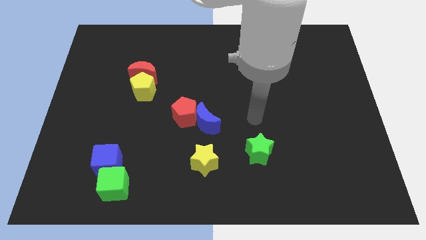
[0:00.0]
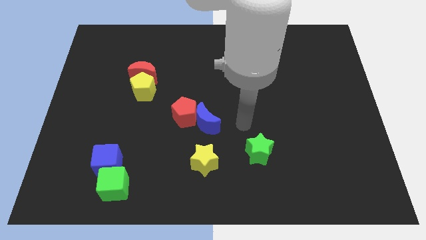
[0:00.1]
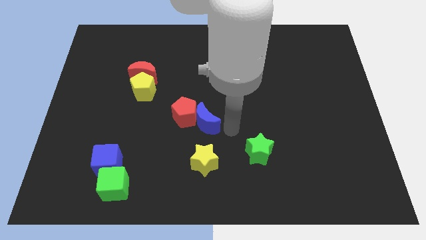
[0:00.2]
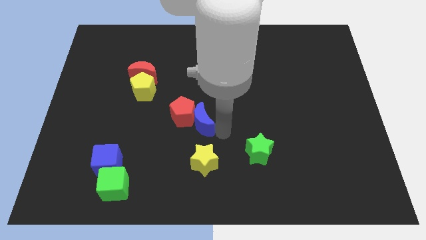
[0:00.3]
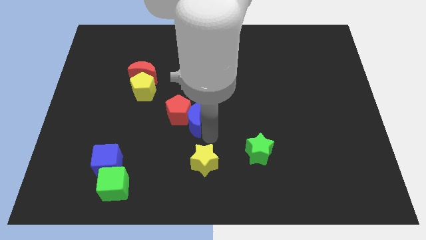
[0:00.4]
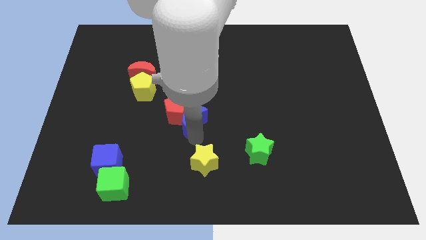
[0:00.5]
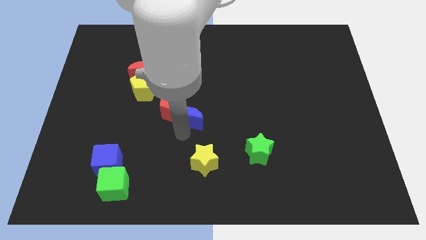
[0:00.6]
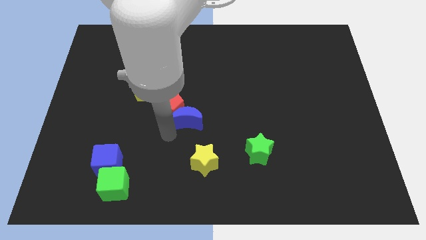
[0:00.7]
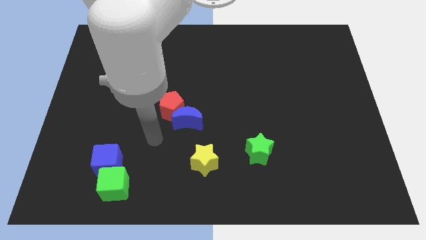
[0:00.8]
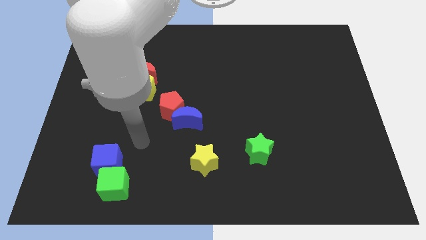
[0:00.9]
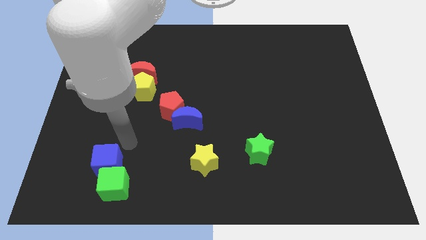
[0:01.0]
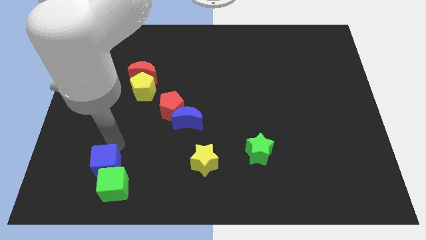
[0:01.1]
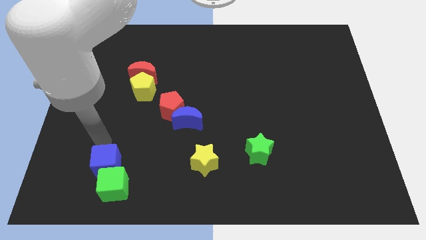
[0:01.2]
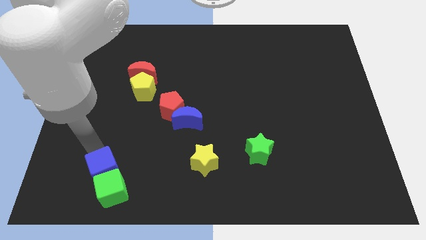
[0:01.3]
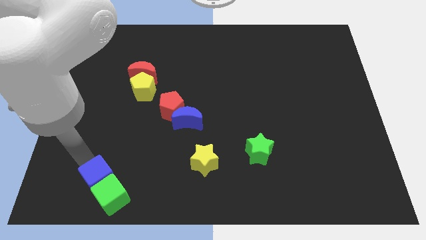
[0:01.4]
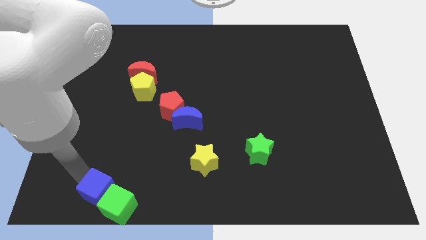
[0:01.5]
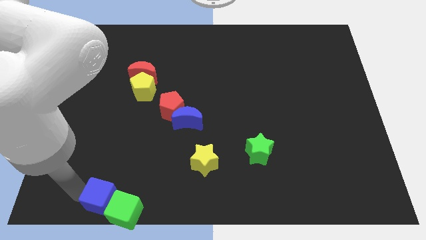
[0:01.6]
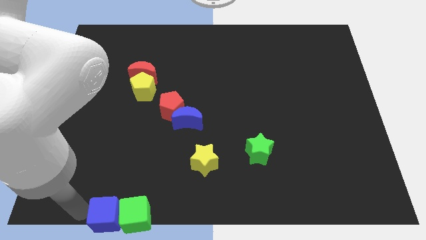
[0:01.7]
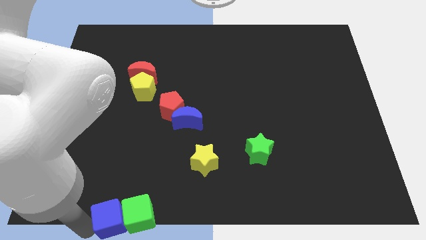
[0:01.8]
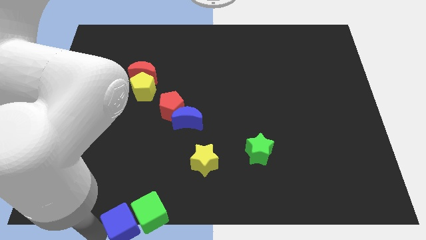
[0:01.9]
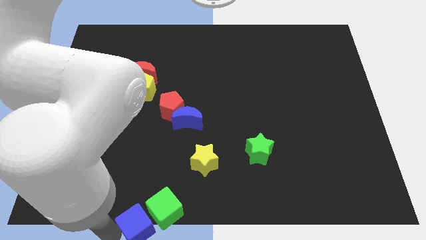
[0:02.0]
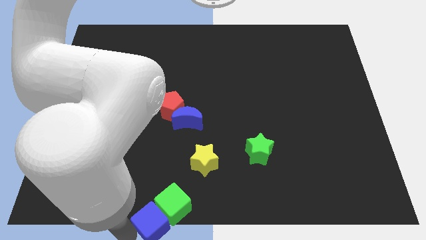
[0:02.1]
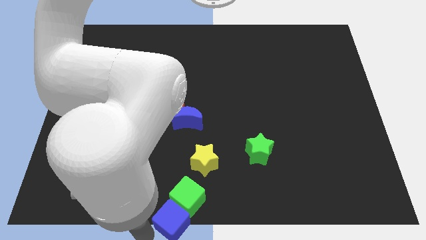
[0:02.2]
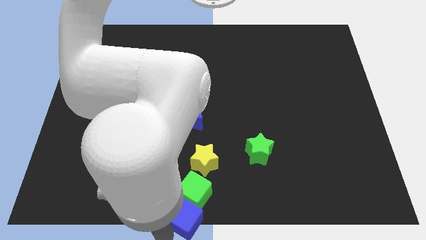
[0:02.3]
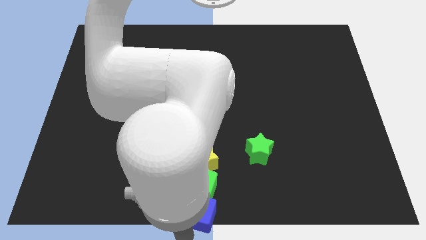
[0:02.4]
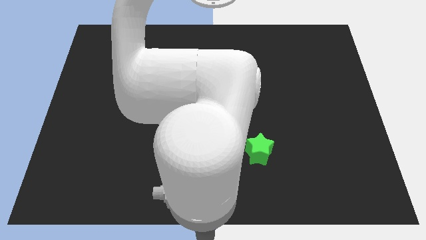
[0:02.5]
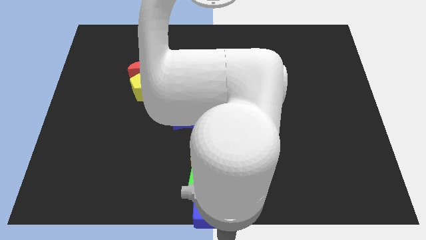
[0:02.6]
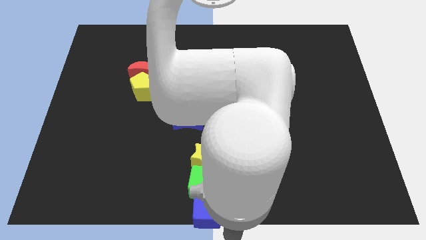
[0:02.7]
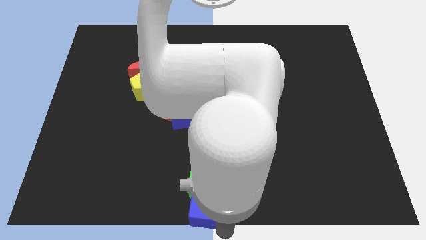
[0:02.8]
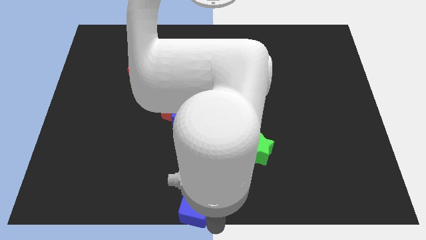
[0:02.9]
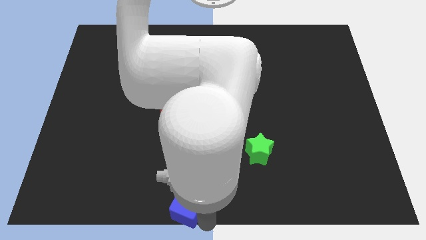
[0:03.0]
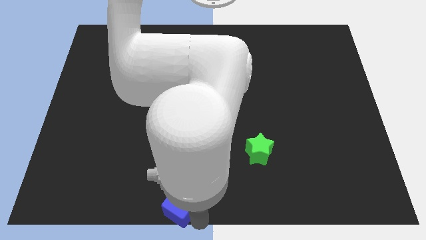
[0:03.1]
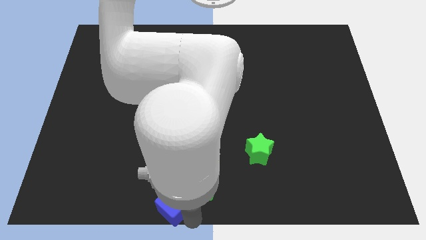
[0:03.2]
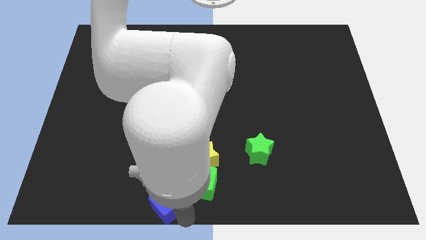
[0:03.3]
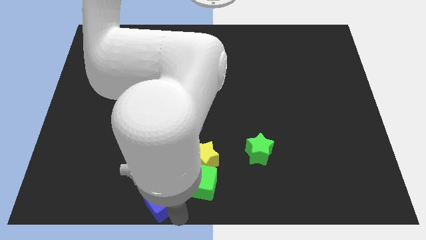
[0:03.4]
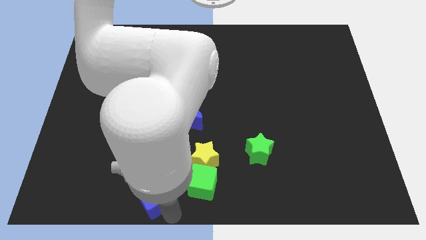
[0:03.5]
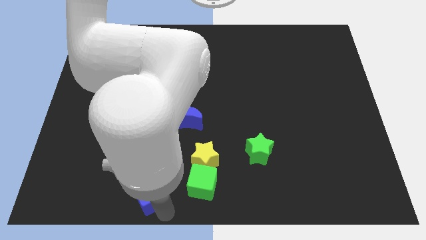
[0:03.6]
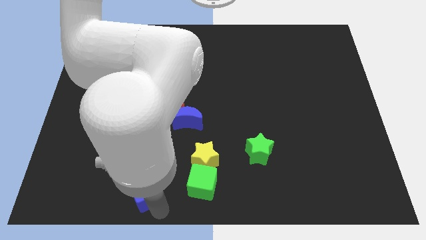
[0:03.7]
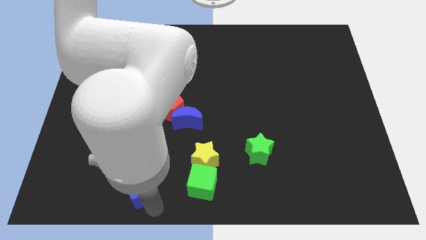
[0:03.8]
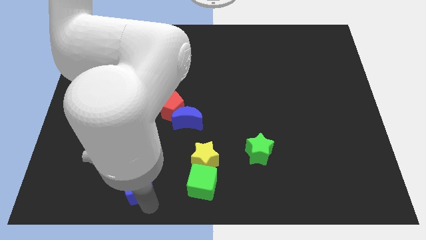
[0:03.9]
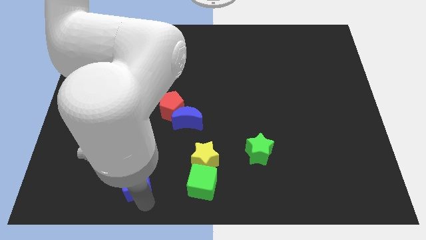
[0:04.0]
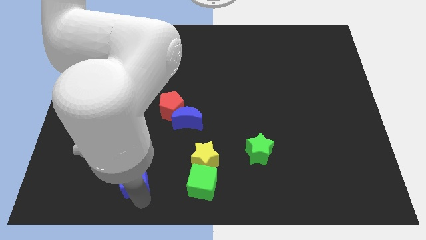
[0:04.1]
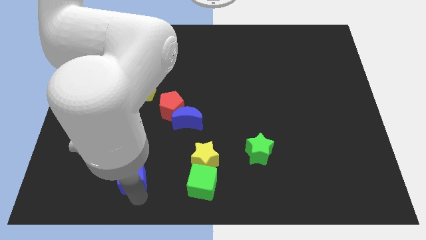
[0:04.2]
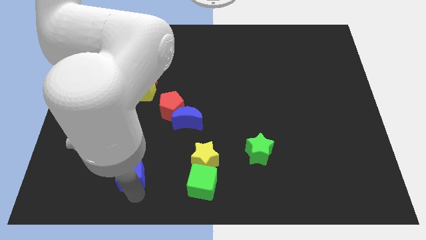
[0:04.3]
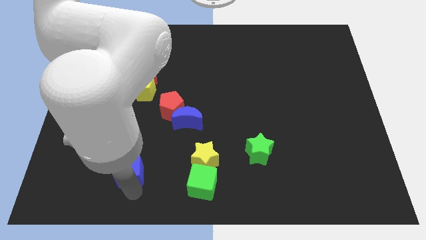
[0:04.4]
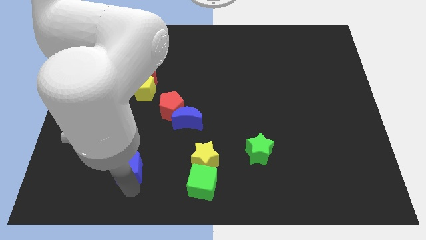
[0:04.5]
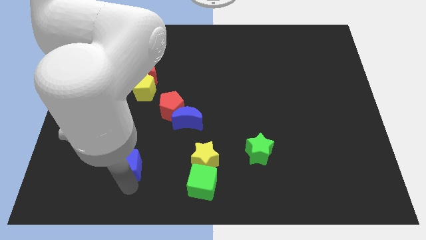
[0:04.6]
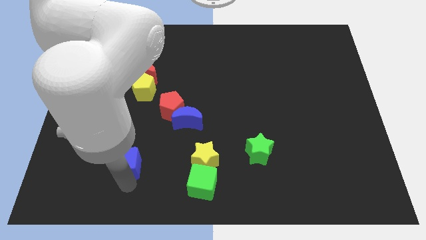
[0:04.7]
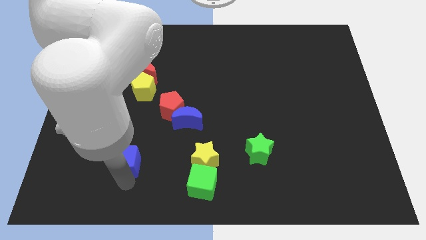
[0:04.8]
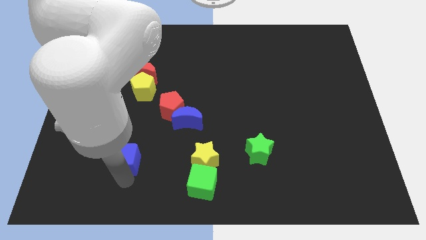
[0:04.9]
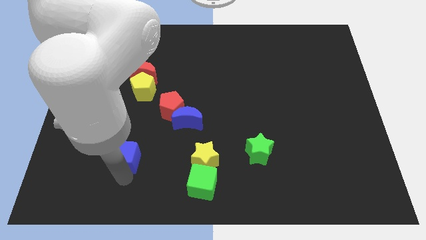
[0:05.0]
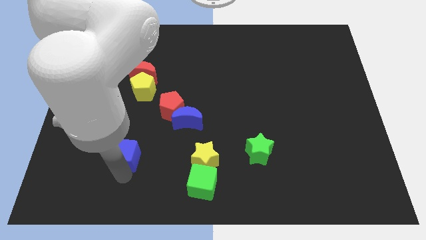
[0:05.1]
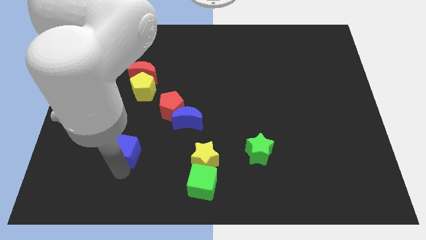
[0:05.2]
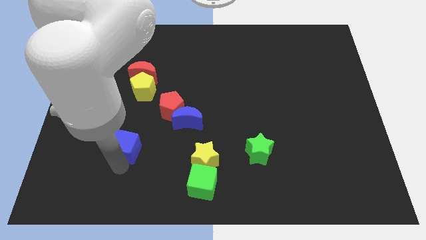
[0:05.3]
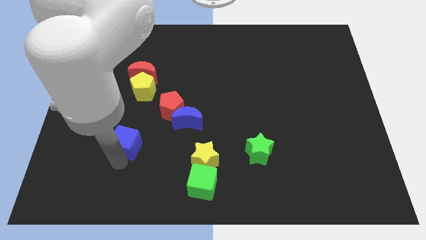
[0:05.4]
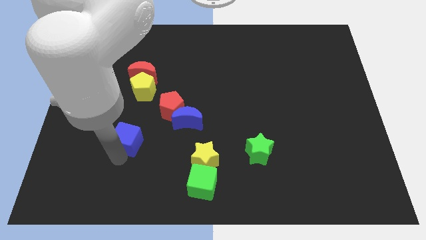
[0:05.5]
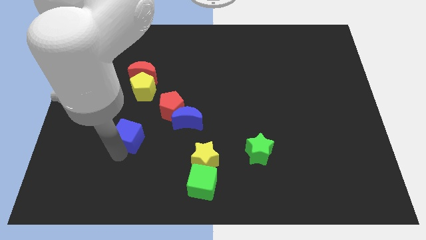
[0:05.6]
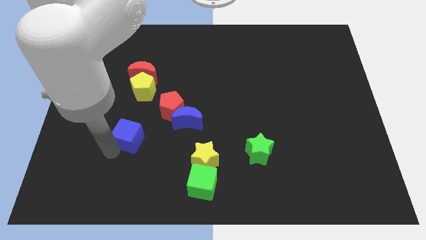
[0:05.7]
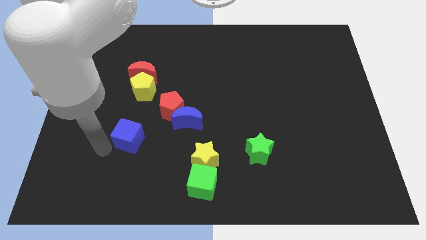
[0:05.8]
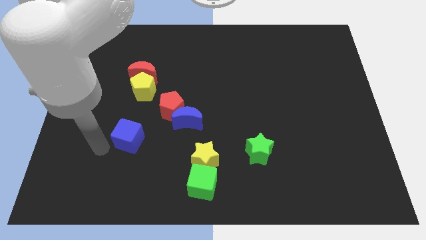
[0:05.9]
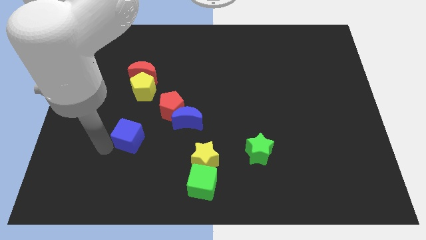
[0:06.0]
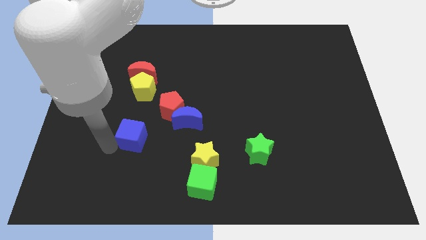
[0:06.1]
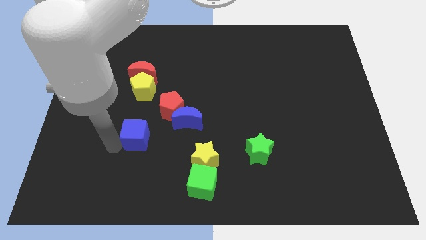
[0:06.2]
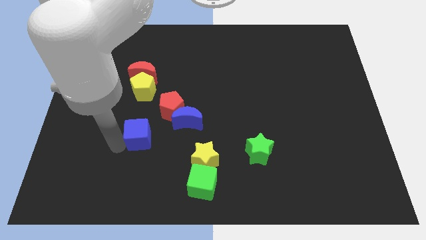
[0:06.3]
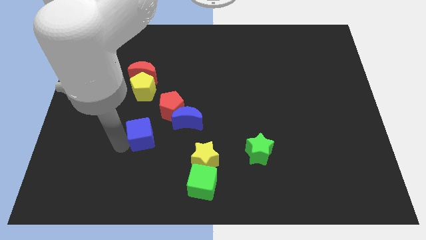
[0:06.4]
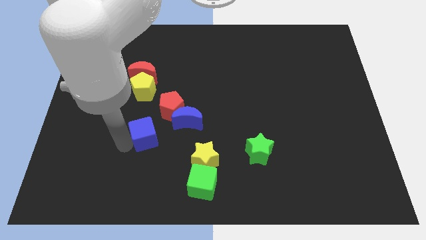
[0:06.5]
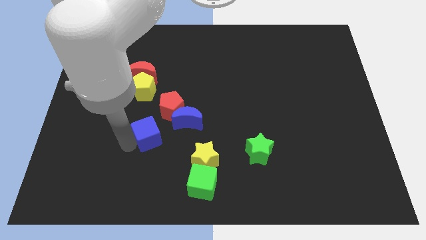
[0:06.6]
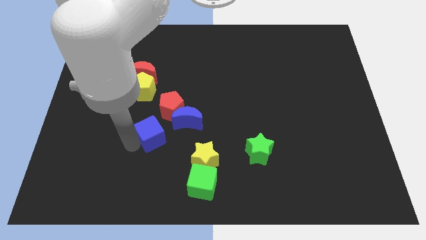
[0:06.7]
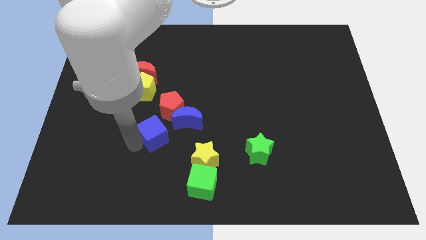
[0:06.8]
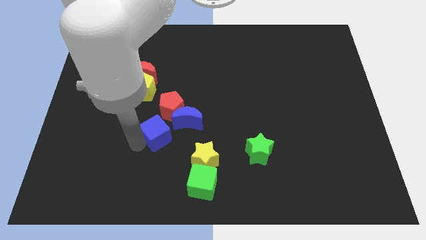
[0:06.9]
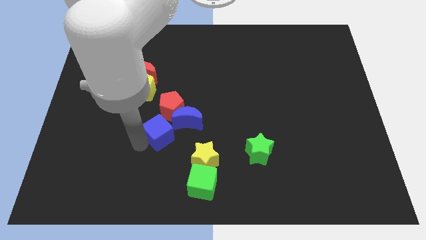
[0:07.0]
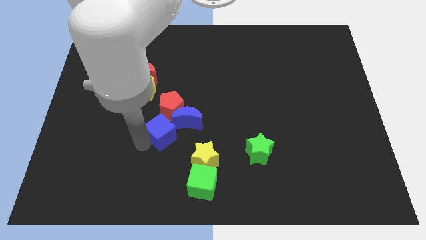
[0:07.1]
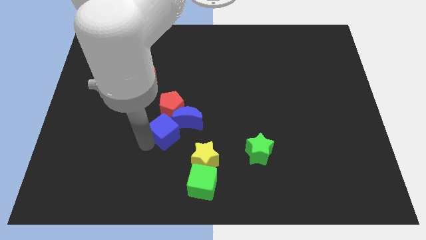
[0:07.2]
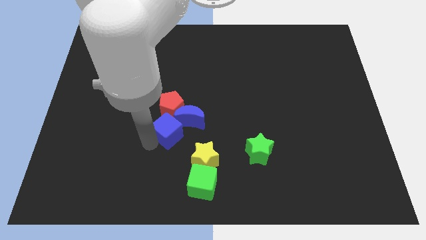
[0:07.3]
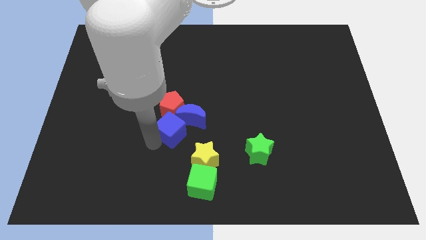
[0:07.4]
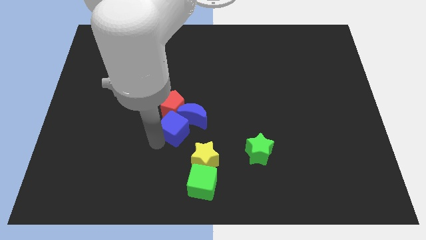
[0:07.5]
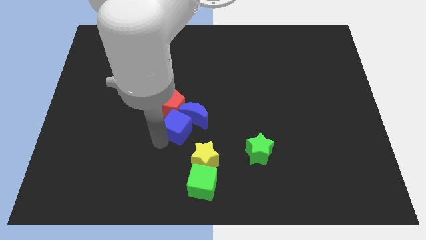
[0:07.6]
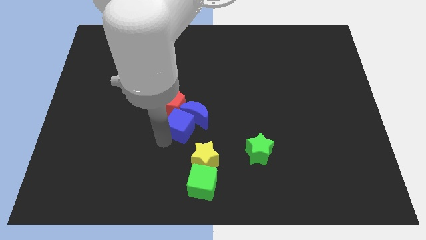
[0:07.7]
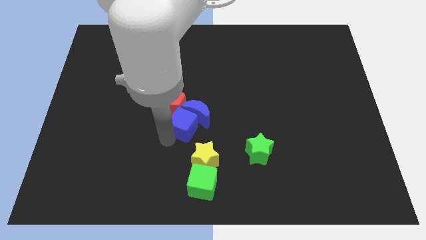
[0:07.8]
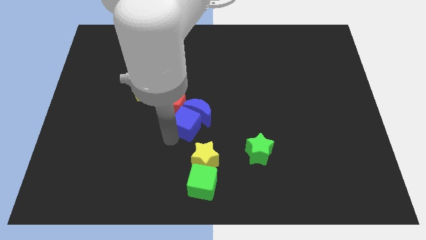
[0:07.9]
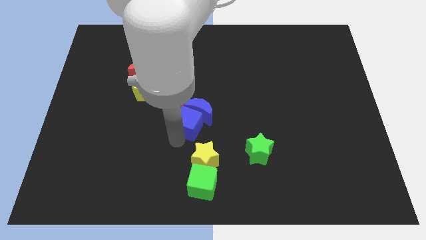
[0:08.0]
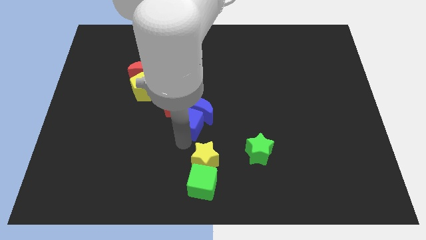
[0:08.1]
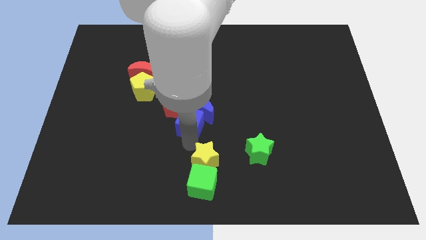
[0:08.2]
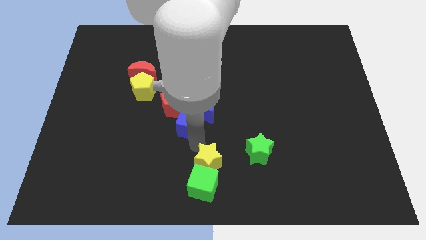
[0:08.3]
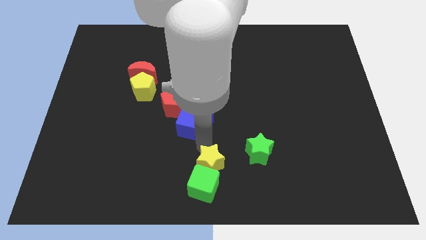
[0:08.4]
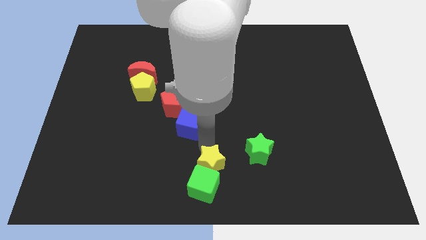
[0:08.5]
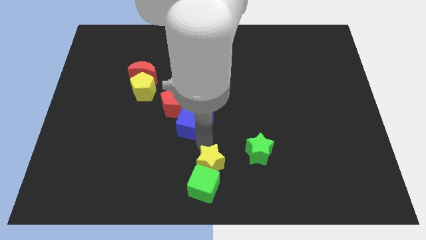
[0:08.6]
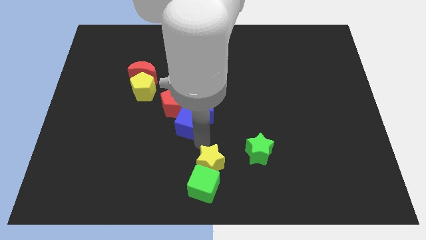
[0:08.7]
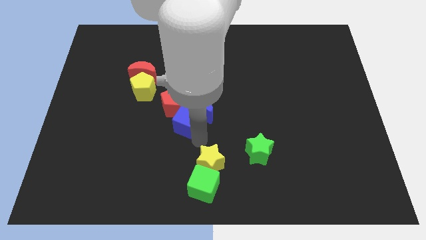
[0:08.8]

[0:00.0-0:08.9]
slide the blue cube to the red pentagon
